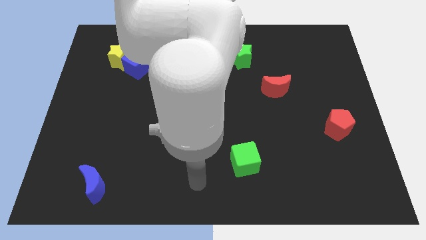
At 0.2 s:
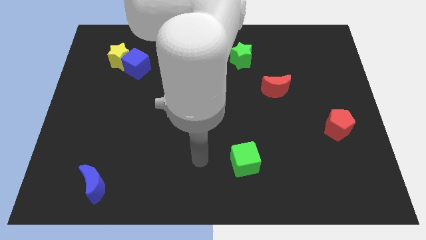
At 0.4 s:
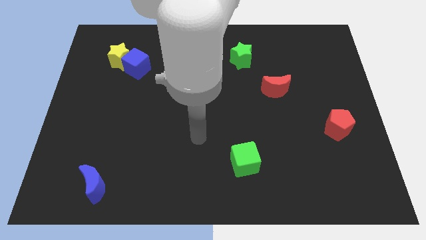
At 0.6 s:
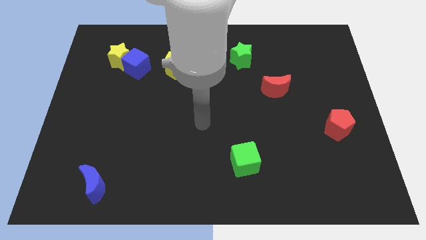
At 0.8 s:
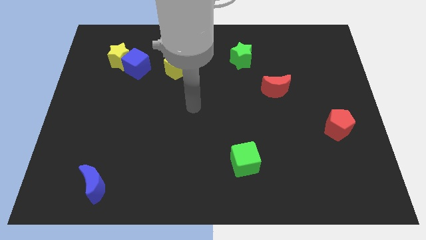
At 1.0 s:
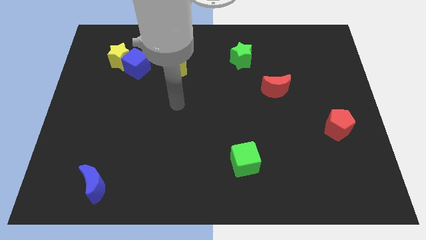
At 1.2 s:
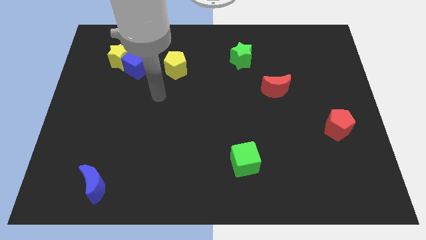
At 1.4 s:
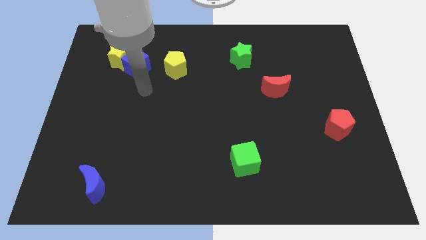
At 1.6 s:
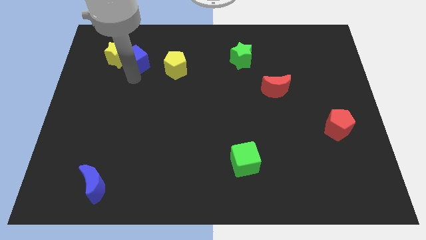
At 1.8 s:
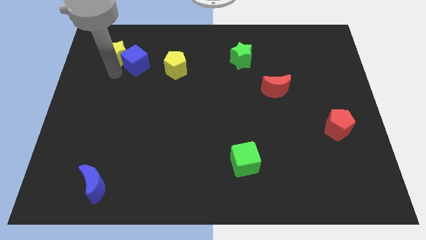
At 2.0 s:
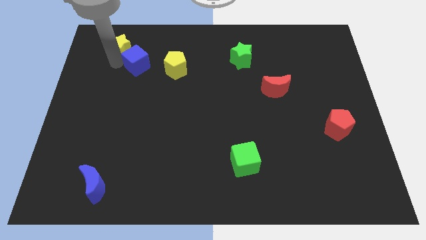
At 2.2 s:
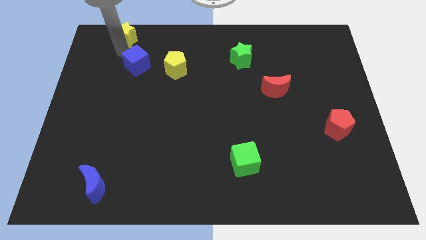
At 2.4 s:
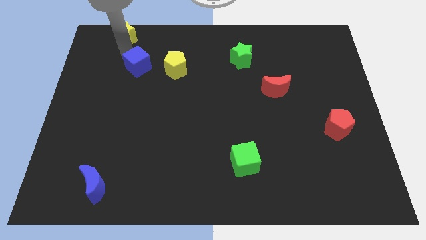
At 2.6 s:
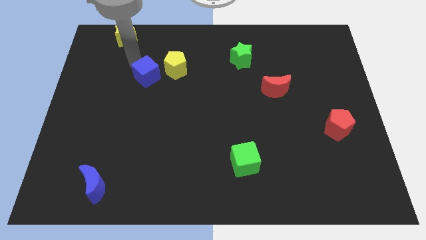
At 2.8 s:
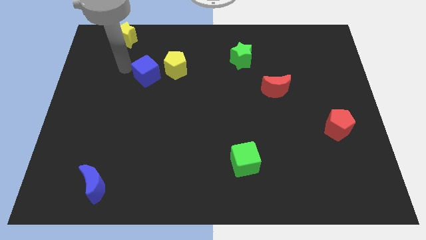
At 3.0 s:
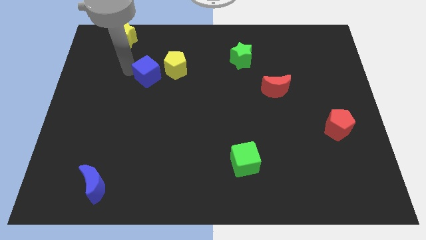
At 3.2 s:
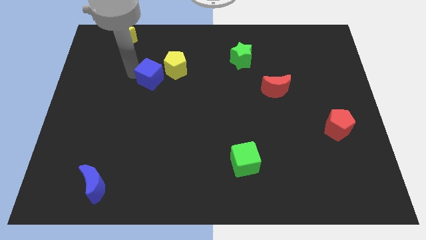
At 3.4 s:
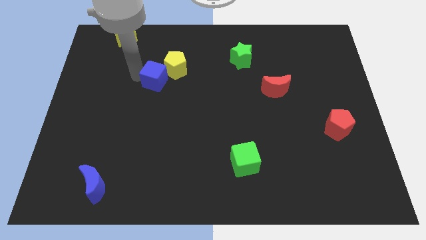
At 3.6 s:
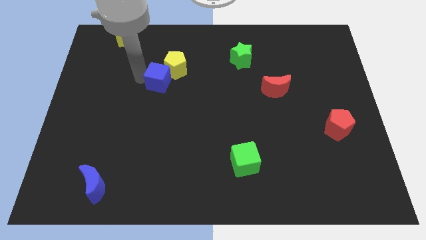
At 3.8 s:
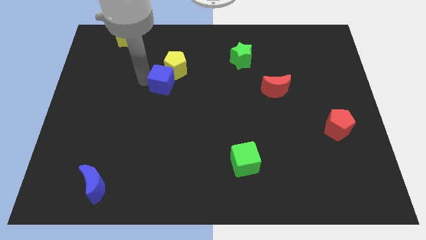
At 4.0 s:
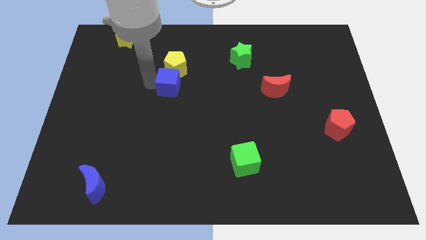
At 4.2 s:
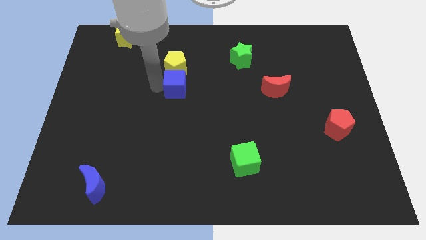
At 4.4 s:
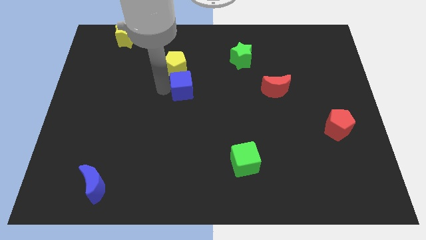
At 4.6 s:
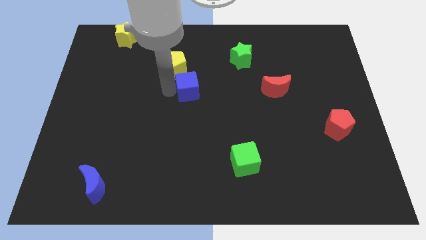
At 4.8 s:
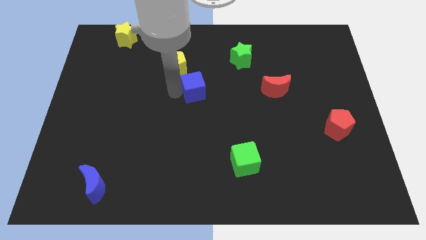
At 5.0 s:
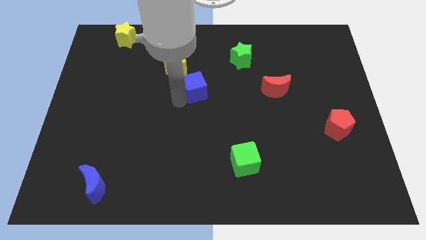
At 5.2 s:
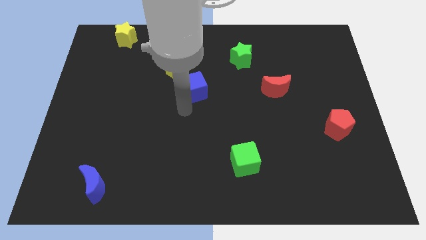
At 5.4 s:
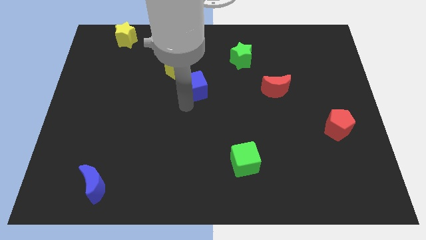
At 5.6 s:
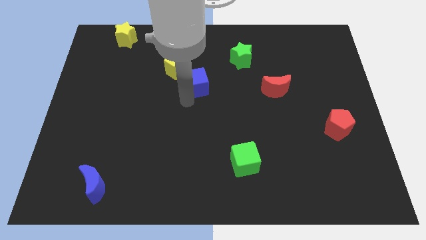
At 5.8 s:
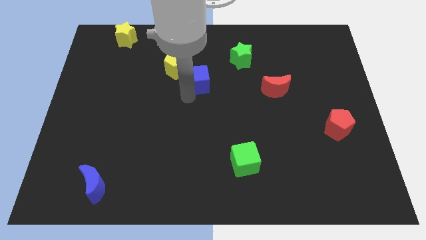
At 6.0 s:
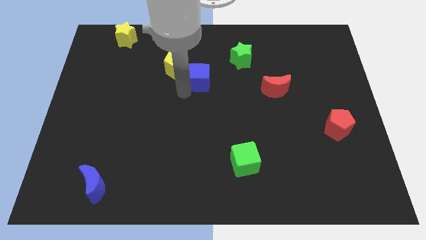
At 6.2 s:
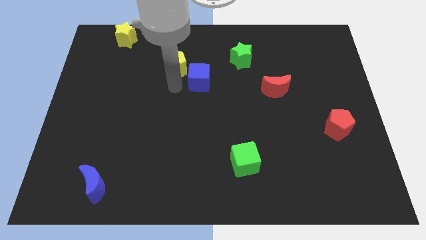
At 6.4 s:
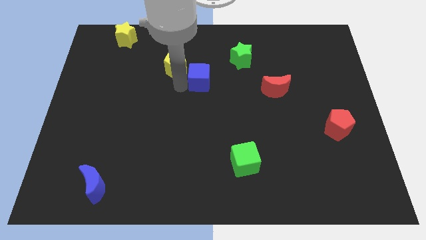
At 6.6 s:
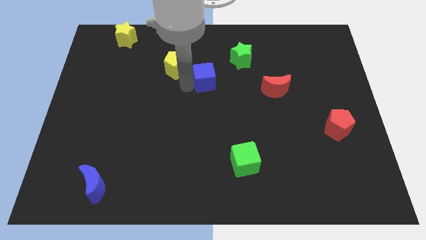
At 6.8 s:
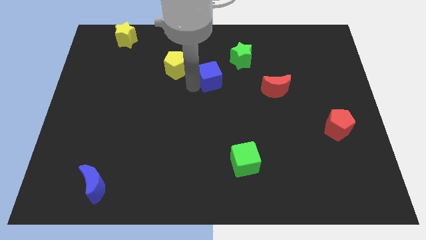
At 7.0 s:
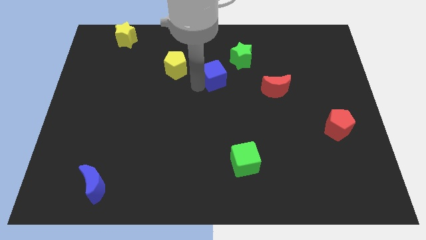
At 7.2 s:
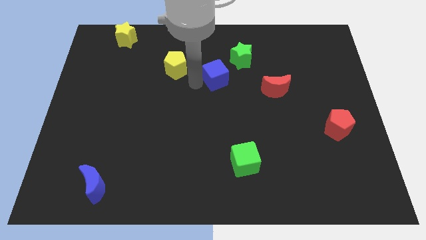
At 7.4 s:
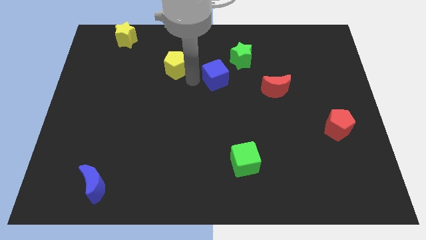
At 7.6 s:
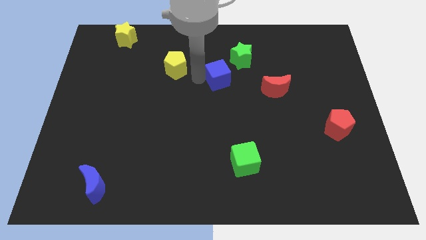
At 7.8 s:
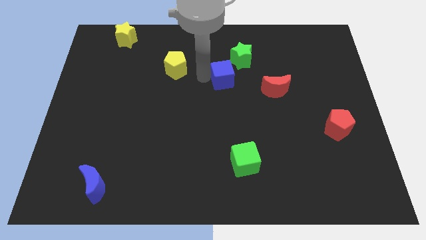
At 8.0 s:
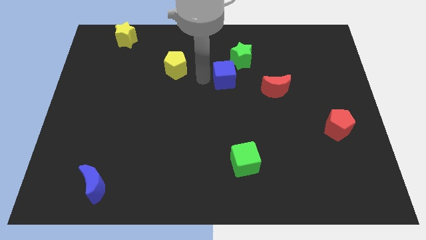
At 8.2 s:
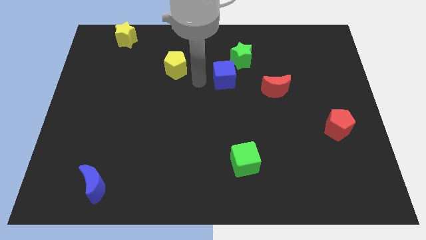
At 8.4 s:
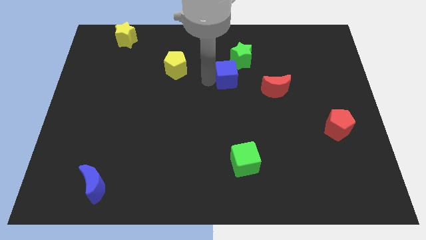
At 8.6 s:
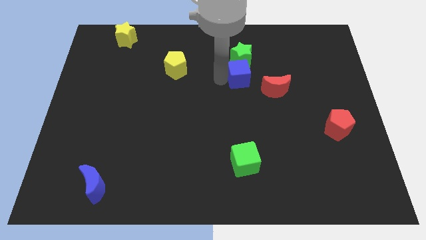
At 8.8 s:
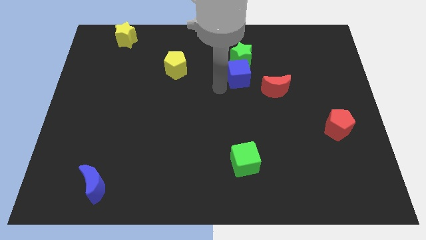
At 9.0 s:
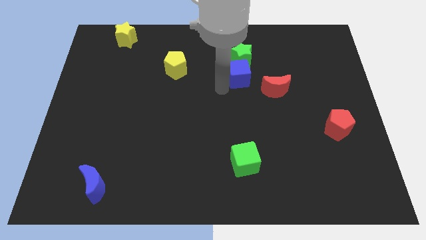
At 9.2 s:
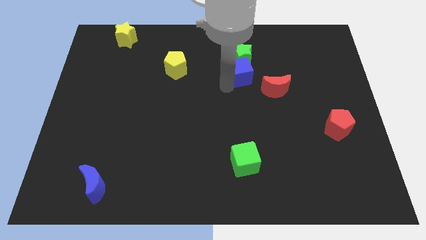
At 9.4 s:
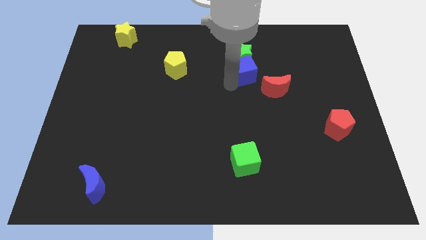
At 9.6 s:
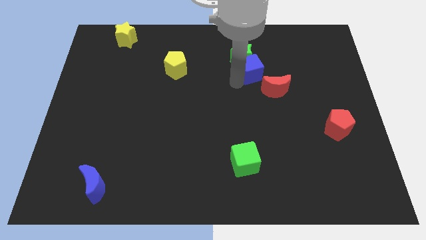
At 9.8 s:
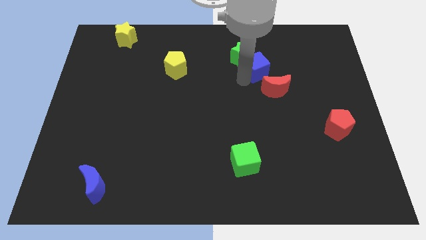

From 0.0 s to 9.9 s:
slide the blue cube right of the green star

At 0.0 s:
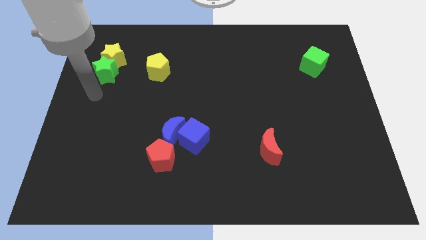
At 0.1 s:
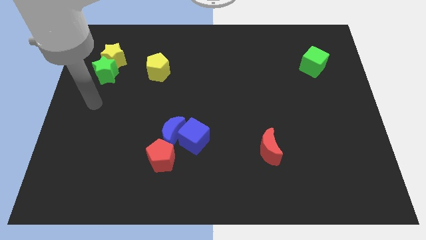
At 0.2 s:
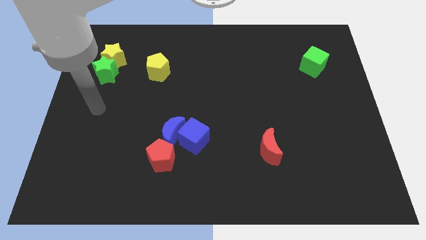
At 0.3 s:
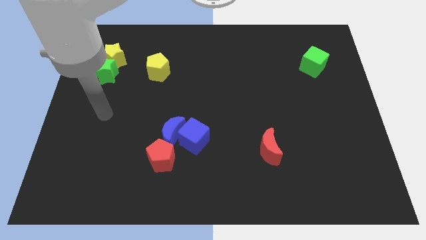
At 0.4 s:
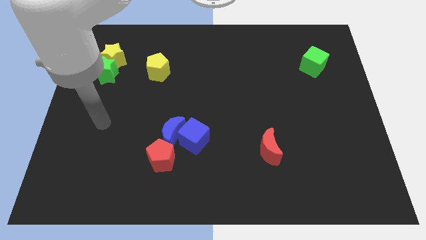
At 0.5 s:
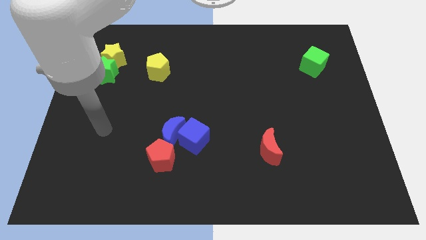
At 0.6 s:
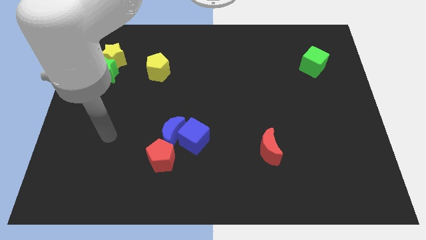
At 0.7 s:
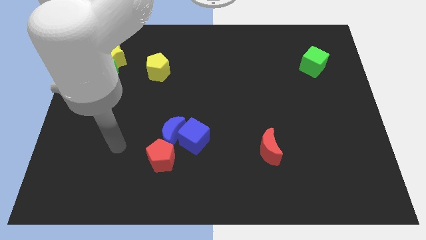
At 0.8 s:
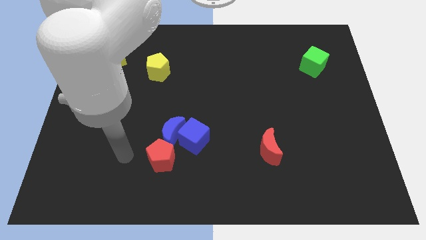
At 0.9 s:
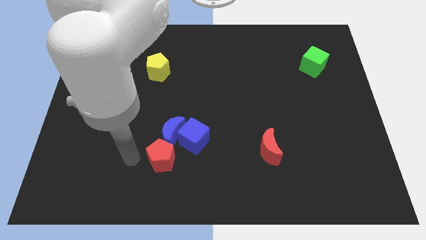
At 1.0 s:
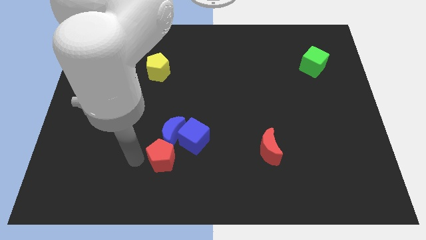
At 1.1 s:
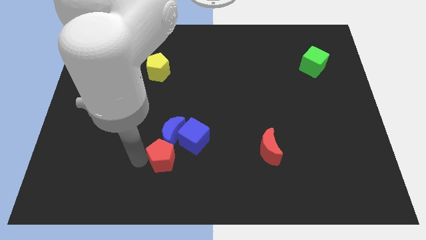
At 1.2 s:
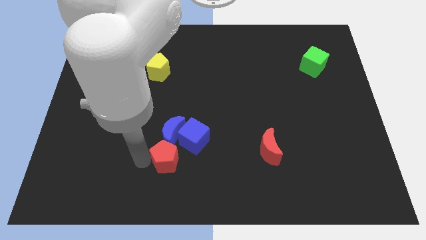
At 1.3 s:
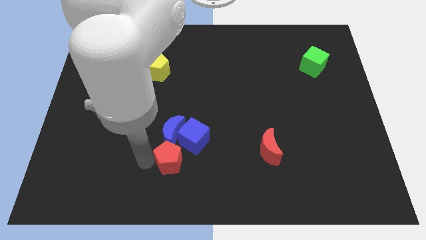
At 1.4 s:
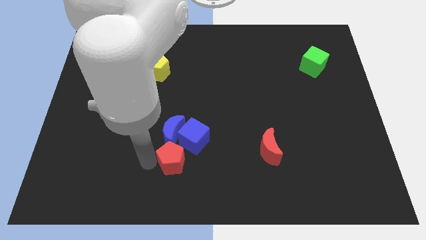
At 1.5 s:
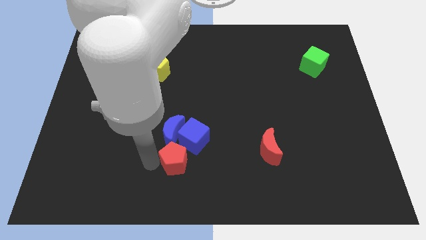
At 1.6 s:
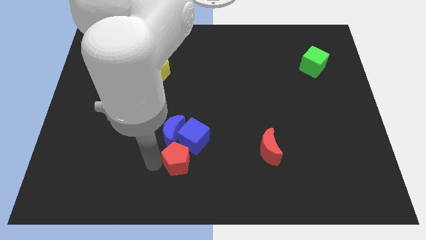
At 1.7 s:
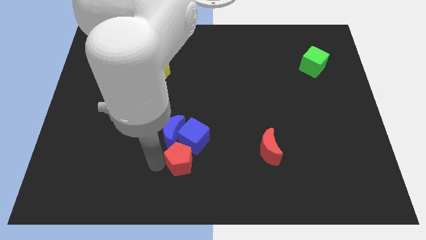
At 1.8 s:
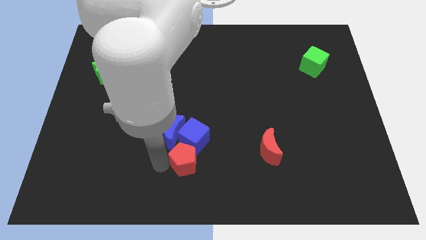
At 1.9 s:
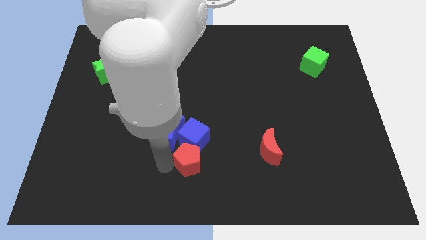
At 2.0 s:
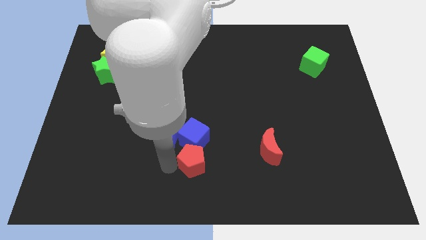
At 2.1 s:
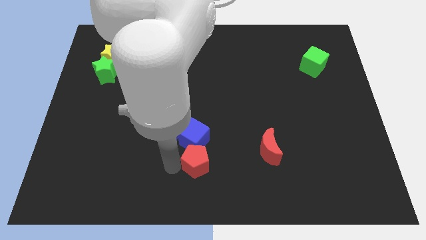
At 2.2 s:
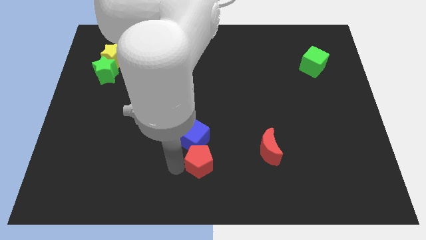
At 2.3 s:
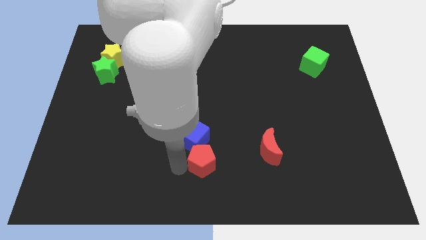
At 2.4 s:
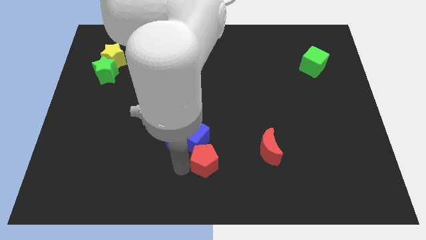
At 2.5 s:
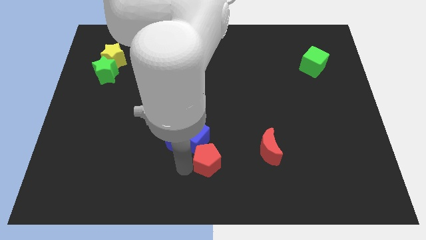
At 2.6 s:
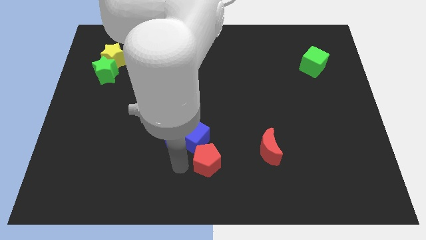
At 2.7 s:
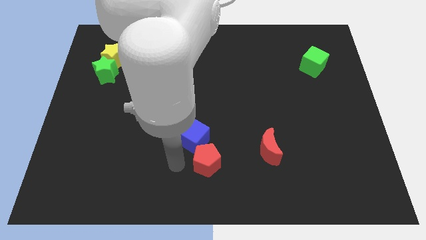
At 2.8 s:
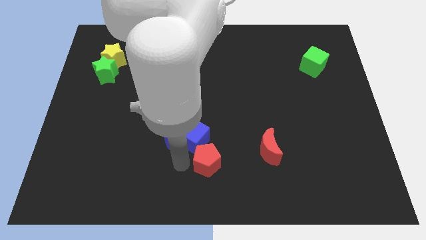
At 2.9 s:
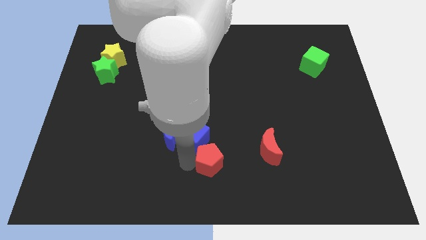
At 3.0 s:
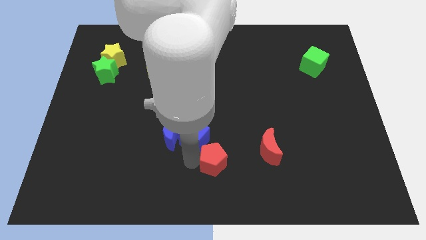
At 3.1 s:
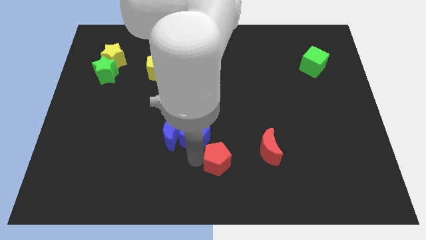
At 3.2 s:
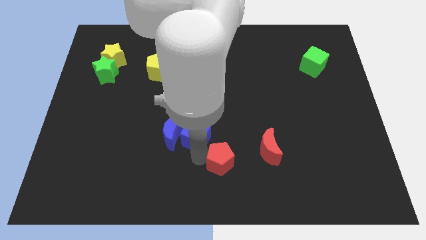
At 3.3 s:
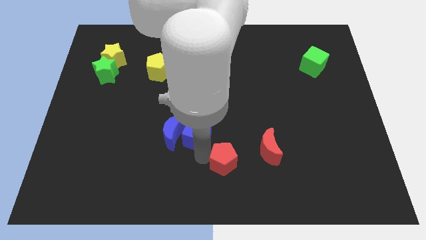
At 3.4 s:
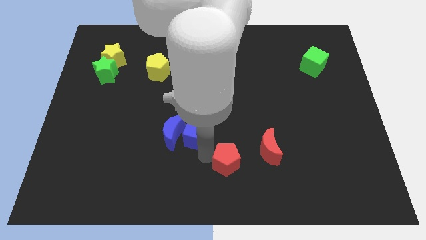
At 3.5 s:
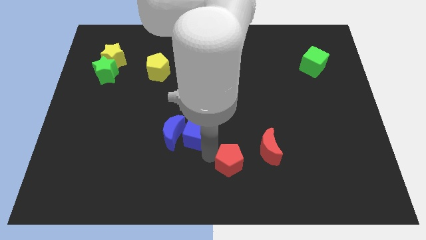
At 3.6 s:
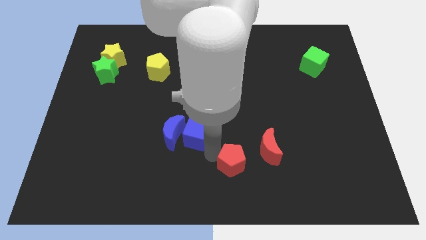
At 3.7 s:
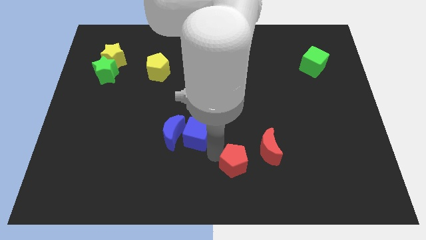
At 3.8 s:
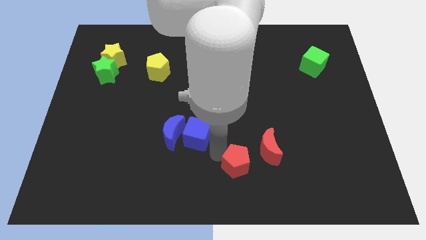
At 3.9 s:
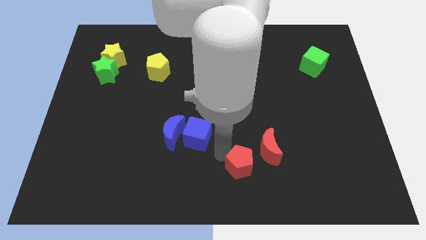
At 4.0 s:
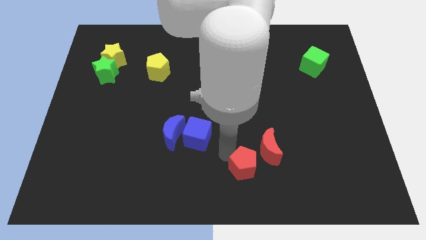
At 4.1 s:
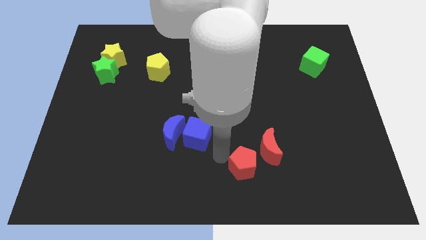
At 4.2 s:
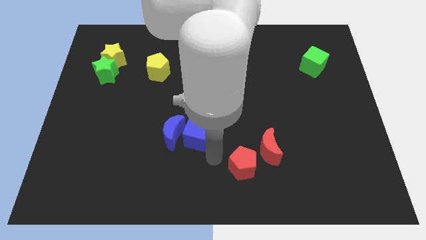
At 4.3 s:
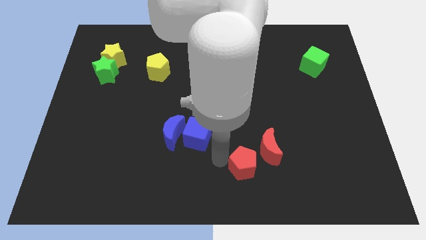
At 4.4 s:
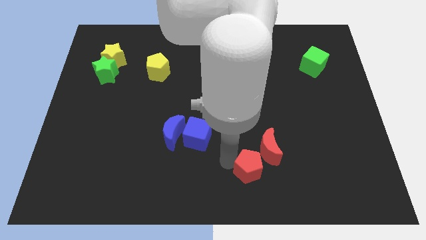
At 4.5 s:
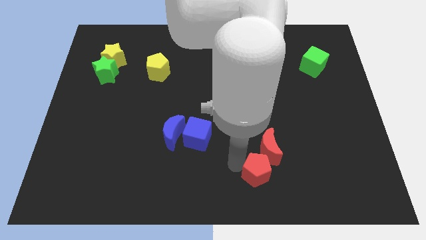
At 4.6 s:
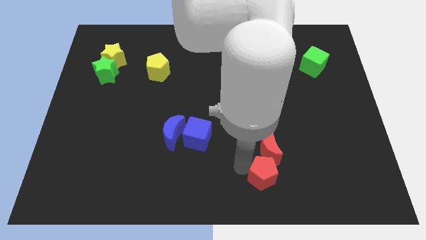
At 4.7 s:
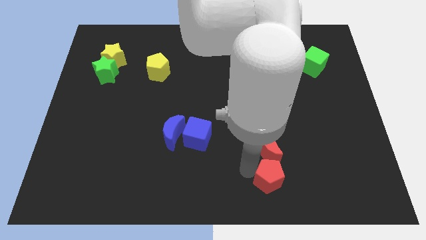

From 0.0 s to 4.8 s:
slide the red pentagon to the bottom right side of the red moon
